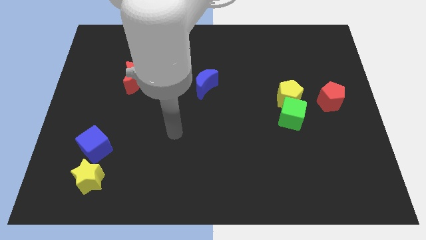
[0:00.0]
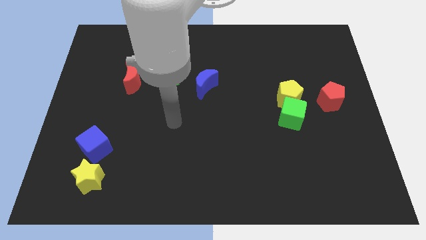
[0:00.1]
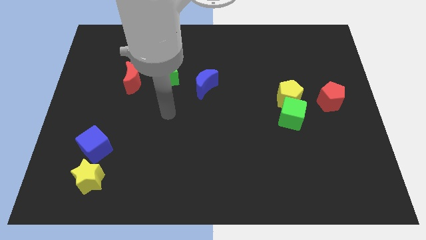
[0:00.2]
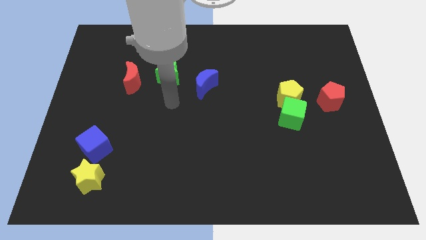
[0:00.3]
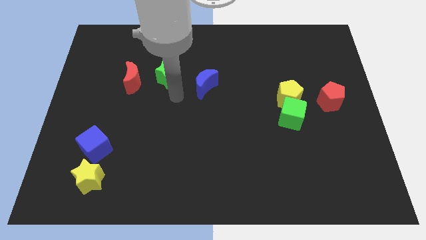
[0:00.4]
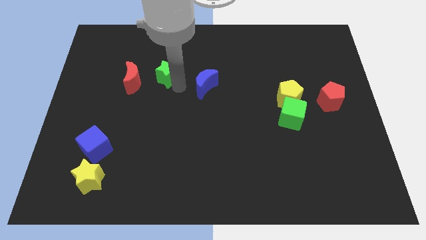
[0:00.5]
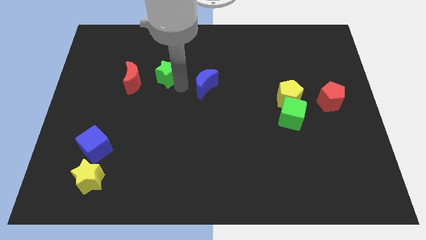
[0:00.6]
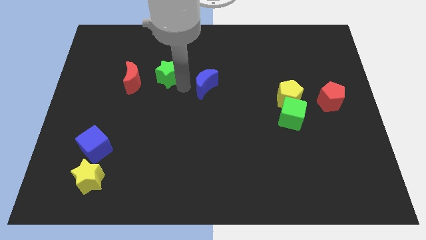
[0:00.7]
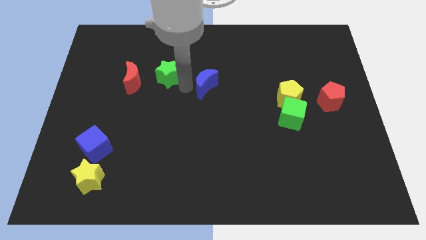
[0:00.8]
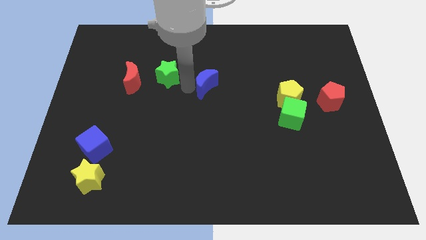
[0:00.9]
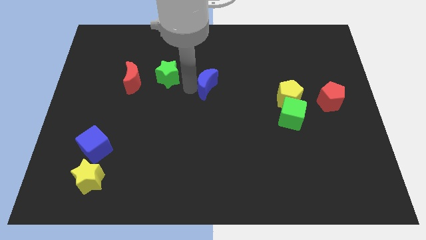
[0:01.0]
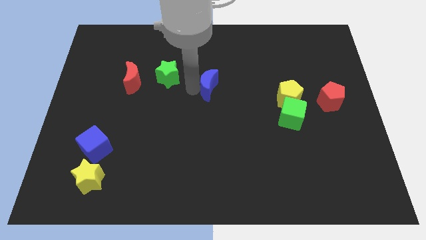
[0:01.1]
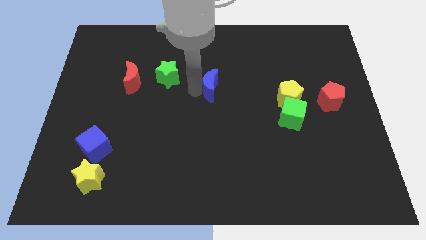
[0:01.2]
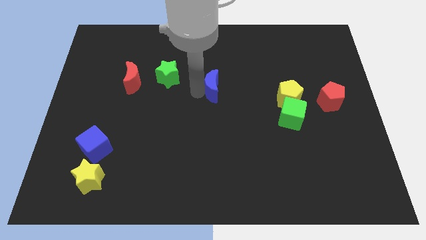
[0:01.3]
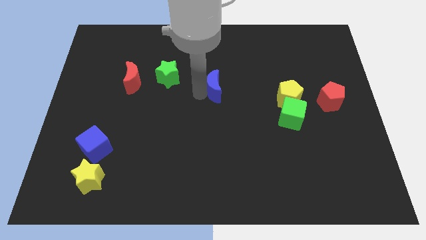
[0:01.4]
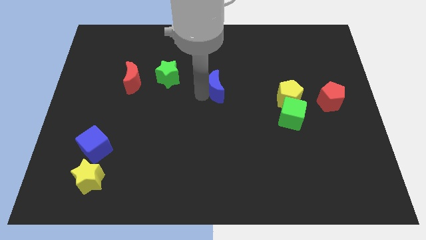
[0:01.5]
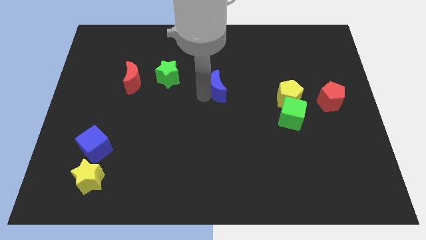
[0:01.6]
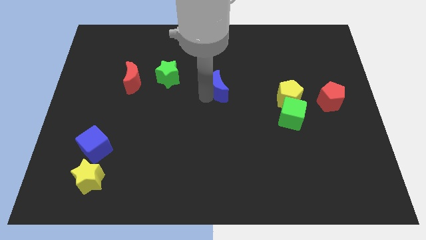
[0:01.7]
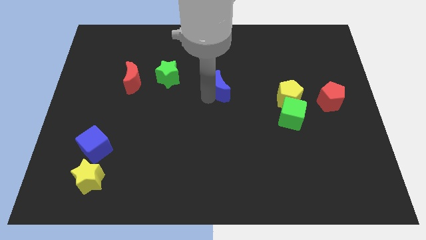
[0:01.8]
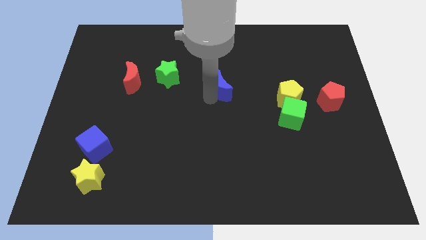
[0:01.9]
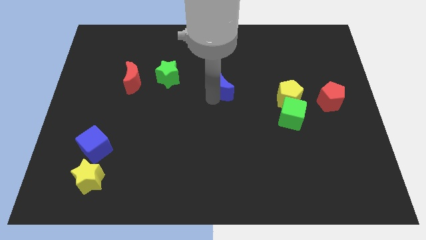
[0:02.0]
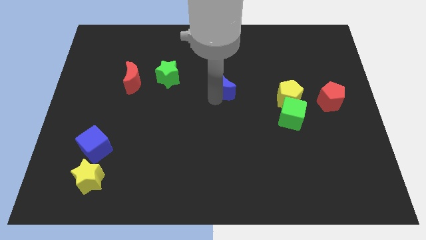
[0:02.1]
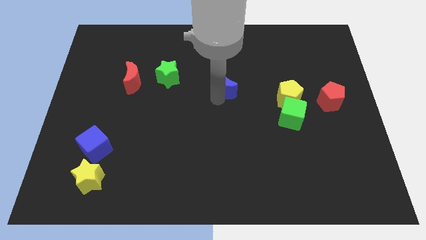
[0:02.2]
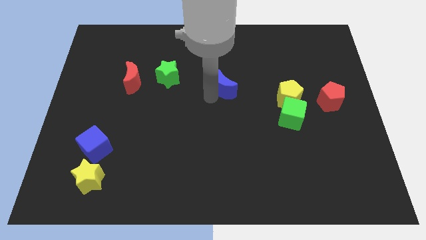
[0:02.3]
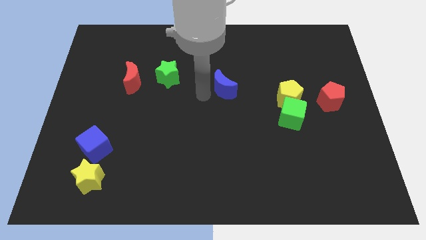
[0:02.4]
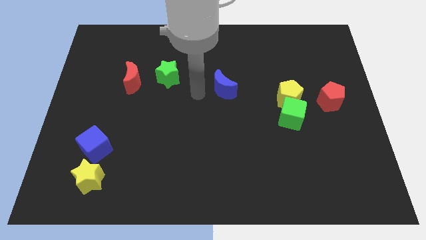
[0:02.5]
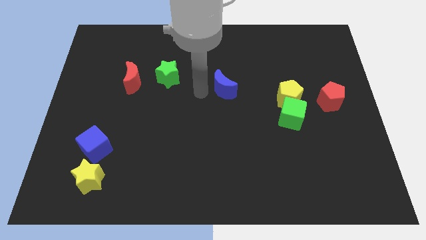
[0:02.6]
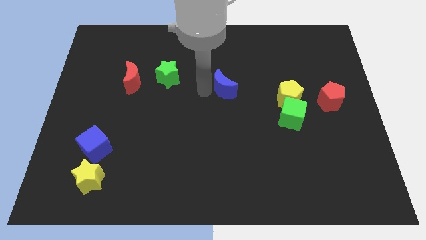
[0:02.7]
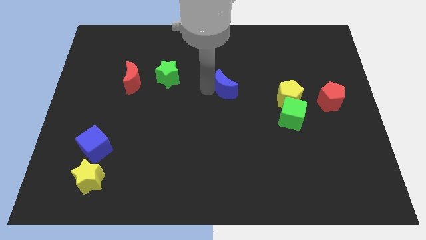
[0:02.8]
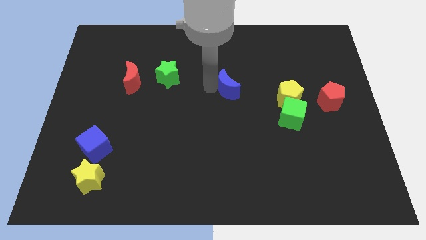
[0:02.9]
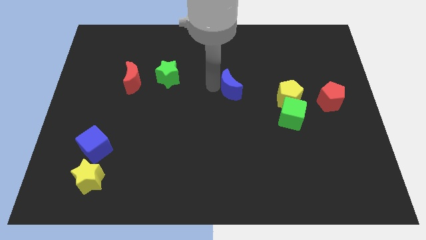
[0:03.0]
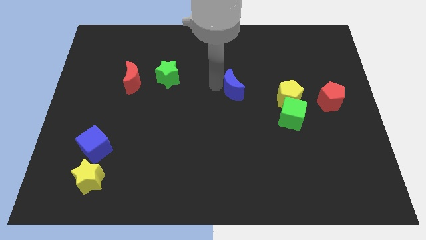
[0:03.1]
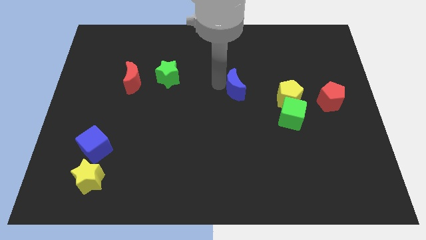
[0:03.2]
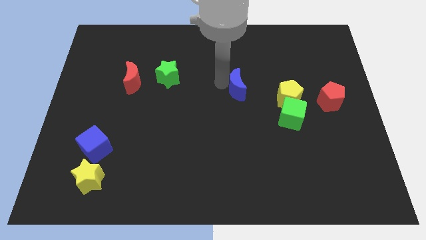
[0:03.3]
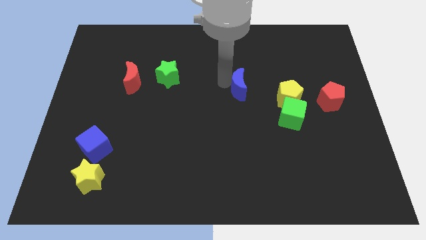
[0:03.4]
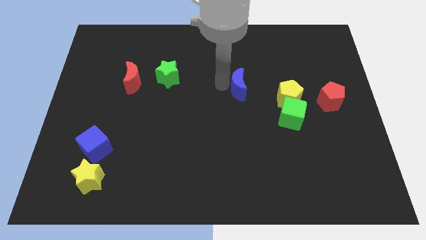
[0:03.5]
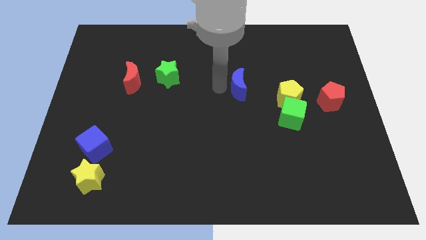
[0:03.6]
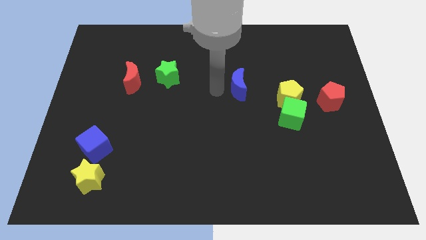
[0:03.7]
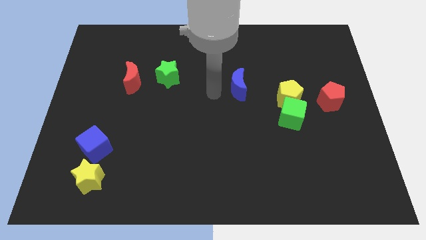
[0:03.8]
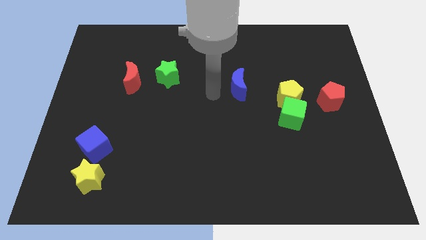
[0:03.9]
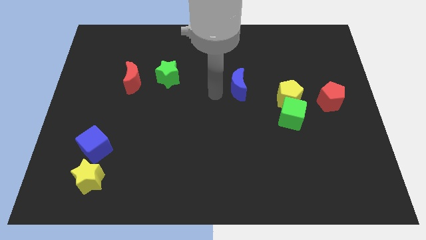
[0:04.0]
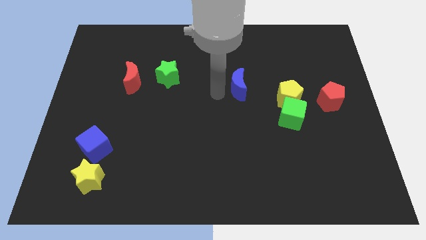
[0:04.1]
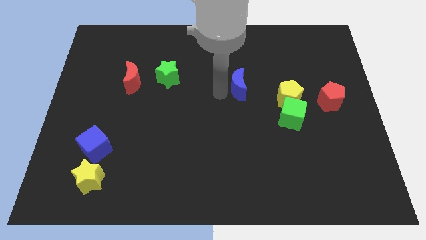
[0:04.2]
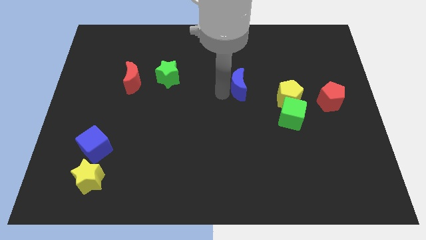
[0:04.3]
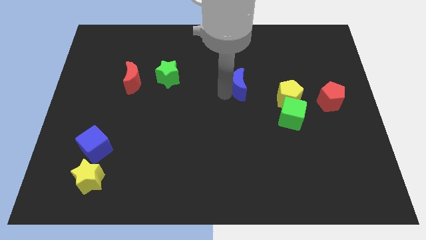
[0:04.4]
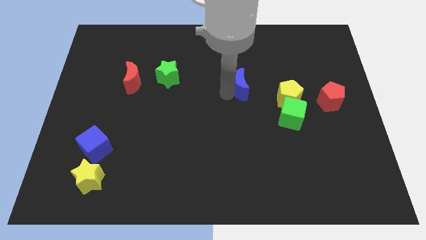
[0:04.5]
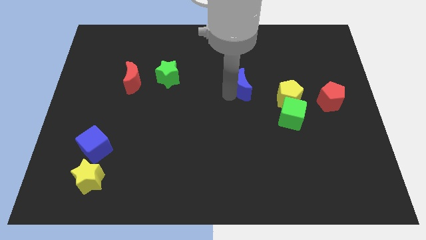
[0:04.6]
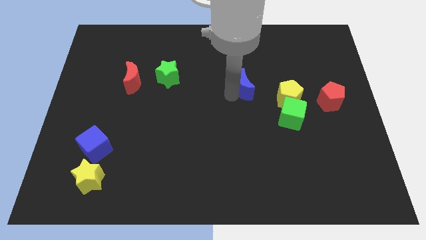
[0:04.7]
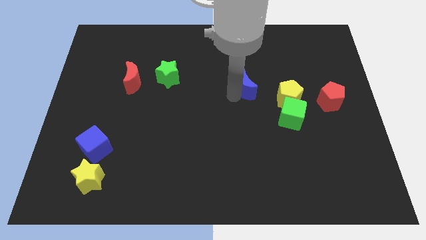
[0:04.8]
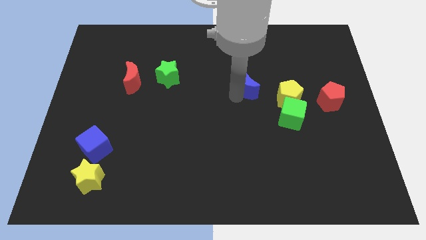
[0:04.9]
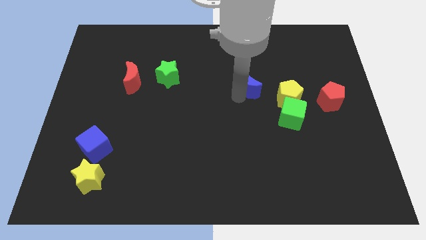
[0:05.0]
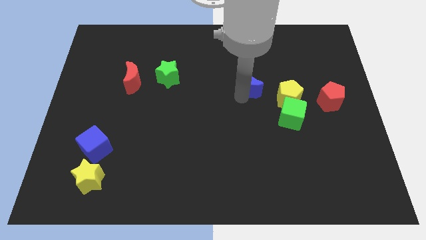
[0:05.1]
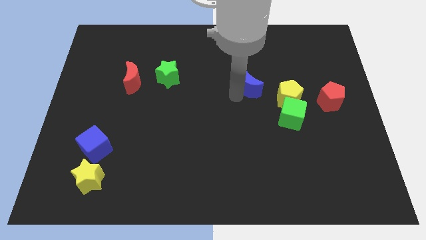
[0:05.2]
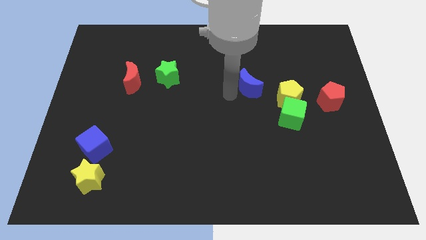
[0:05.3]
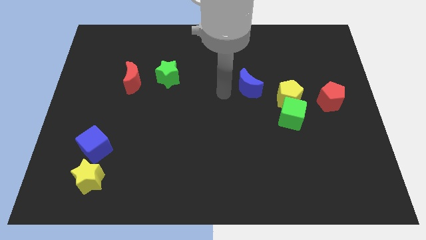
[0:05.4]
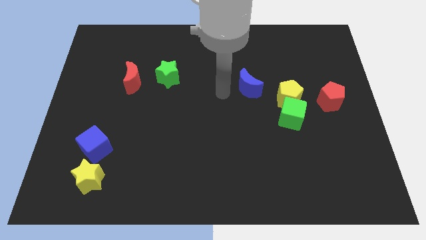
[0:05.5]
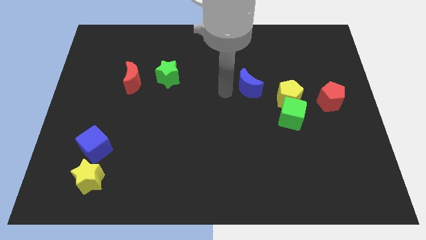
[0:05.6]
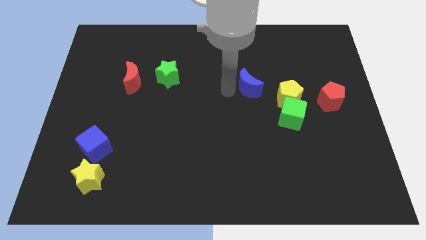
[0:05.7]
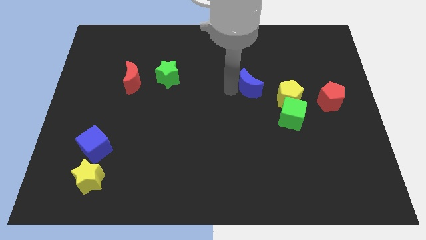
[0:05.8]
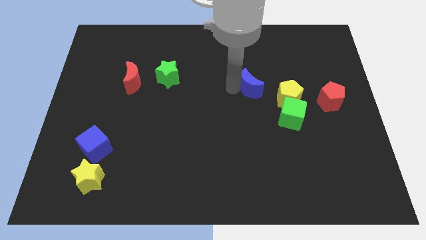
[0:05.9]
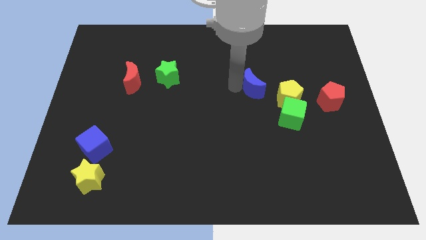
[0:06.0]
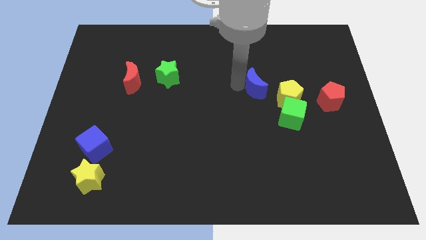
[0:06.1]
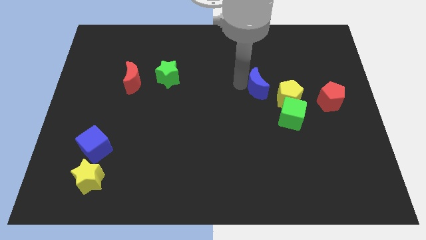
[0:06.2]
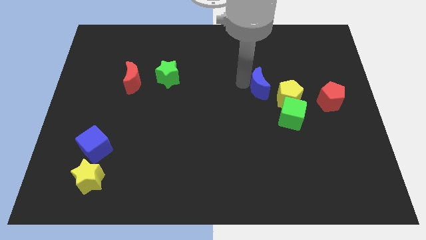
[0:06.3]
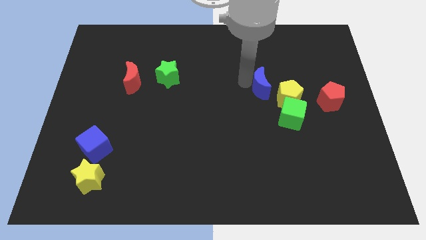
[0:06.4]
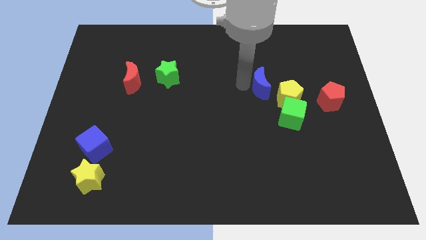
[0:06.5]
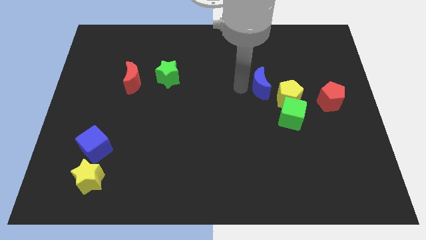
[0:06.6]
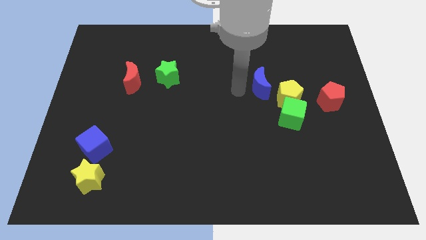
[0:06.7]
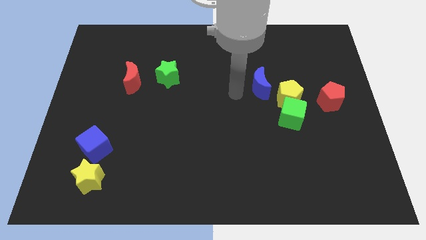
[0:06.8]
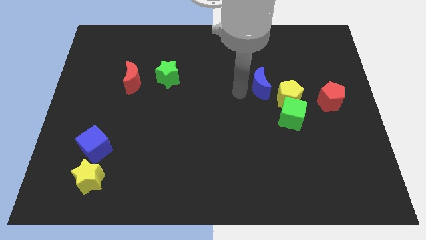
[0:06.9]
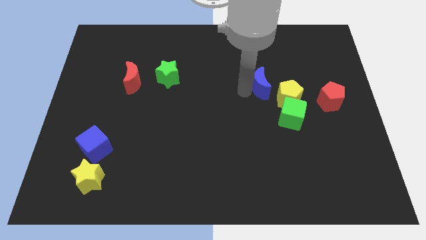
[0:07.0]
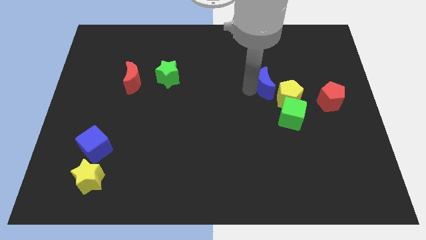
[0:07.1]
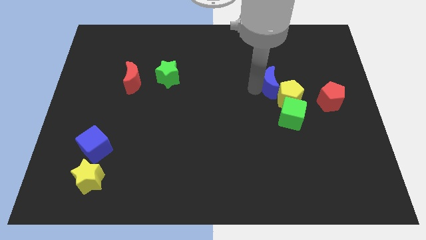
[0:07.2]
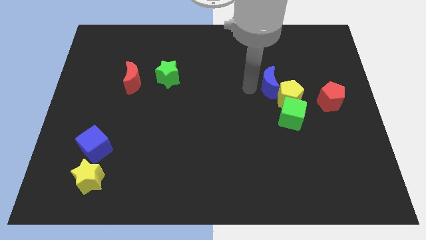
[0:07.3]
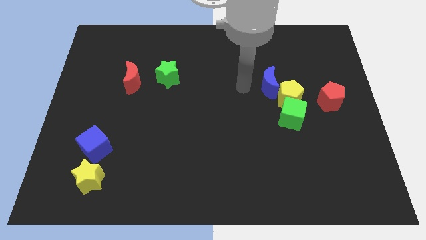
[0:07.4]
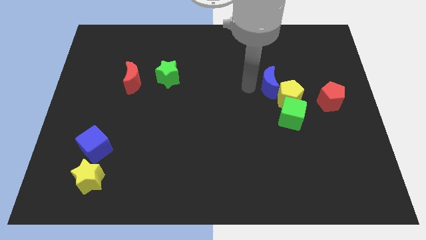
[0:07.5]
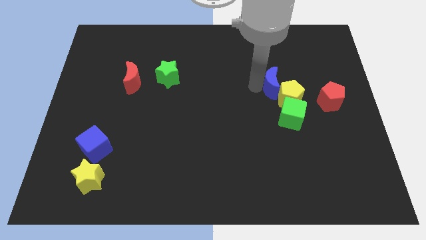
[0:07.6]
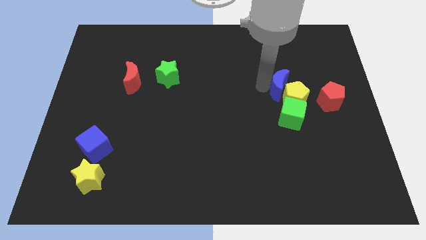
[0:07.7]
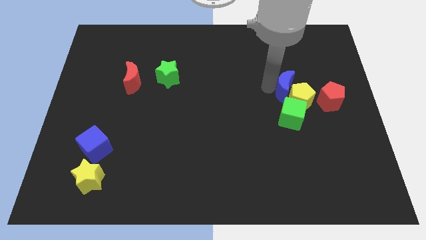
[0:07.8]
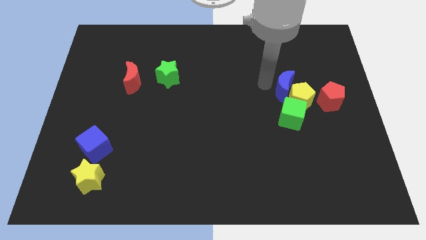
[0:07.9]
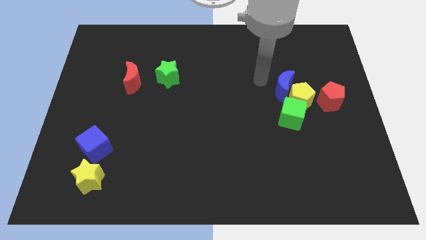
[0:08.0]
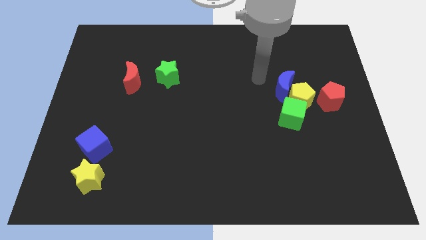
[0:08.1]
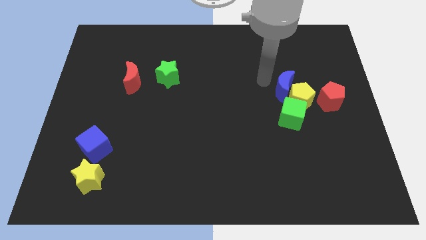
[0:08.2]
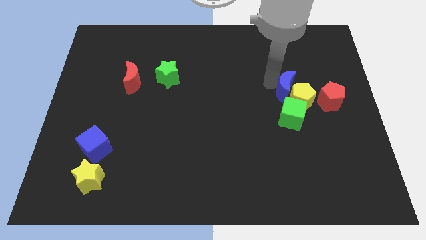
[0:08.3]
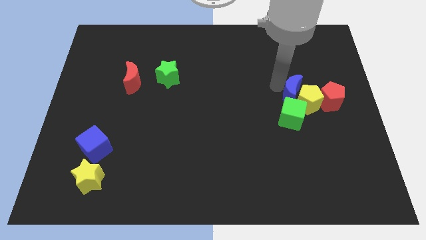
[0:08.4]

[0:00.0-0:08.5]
put the blue moon diagonally up and to the right of the green cube
